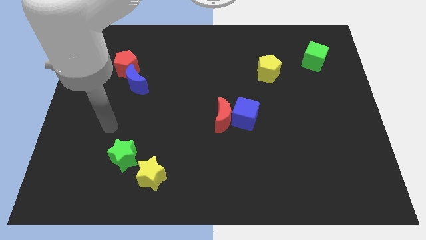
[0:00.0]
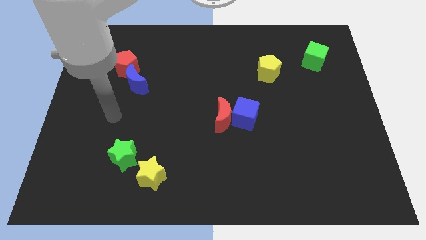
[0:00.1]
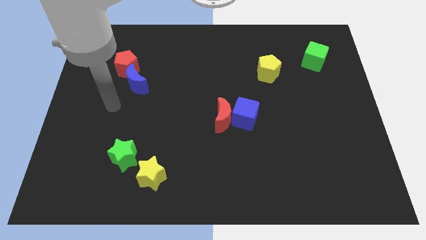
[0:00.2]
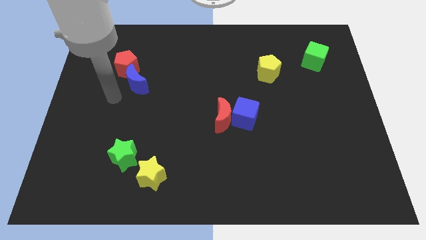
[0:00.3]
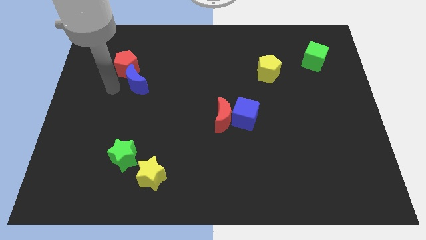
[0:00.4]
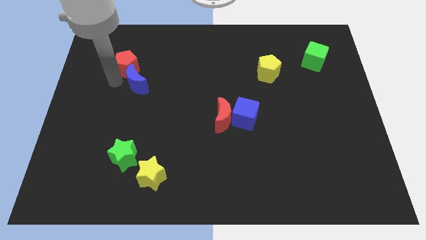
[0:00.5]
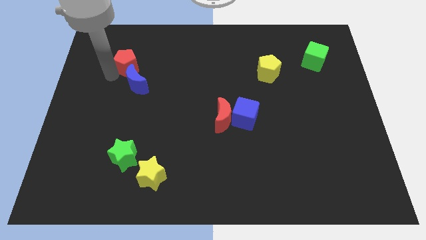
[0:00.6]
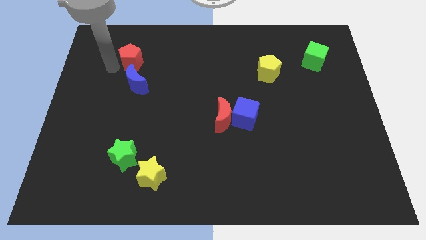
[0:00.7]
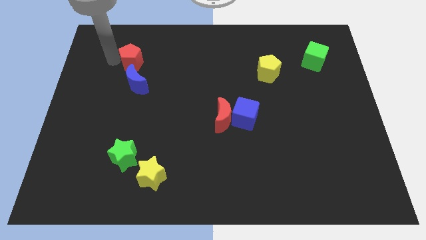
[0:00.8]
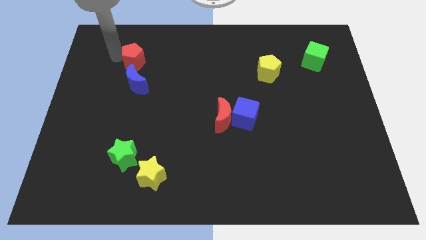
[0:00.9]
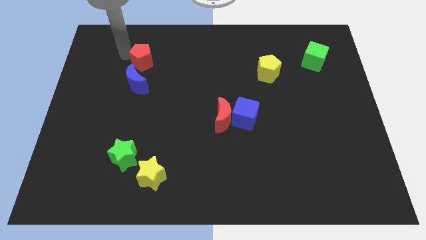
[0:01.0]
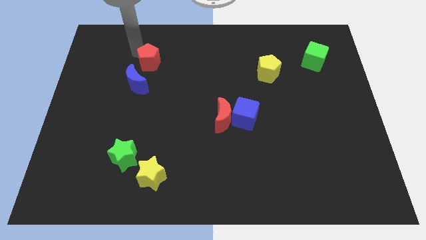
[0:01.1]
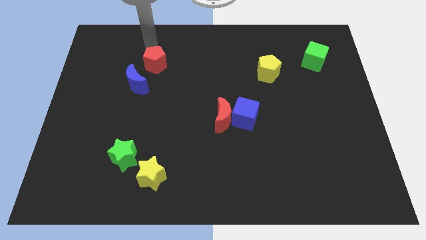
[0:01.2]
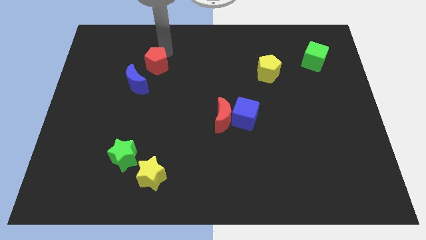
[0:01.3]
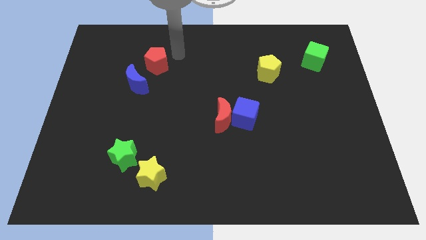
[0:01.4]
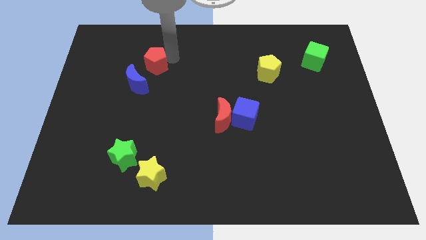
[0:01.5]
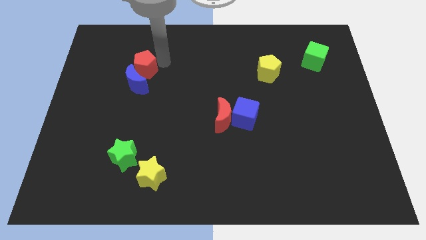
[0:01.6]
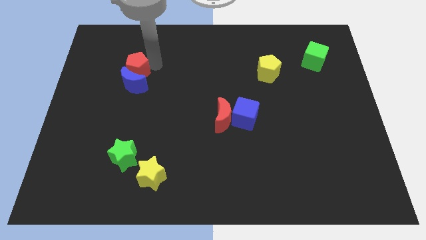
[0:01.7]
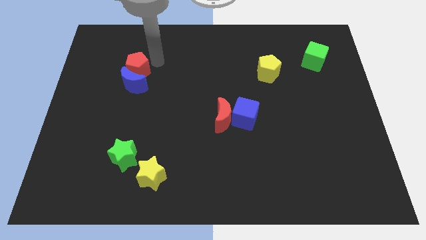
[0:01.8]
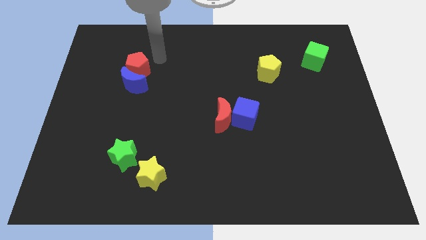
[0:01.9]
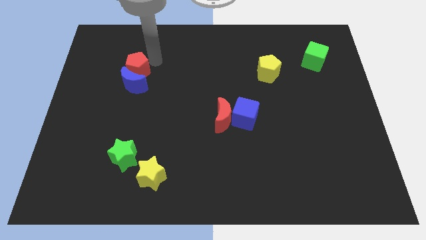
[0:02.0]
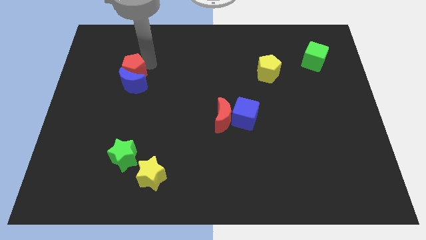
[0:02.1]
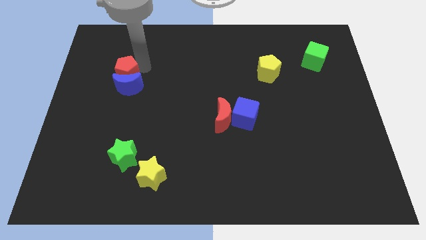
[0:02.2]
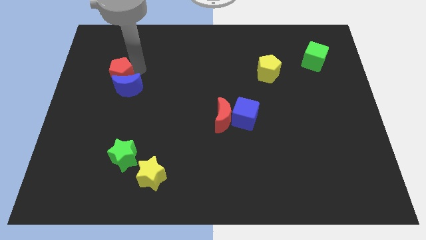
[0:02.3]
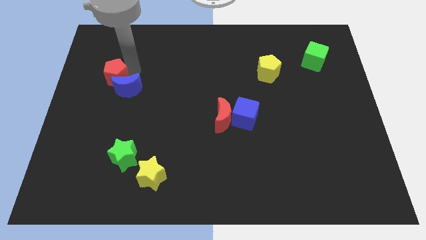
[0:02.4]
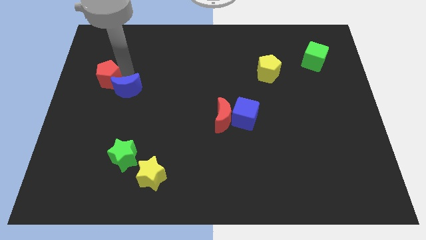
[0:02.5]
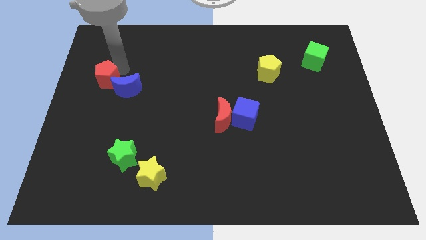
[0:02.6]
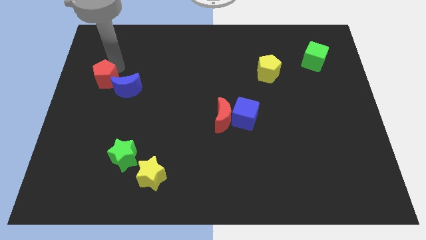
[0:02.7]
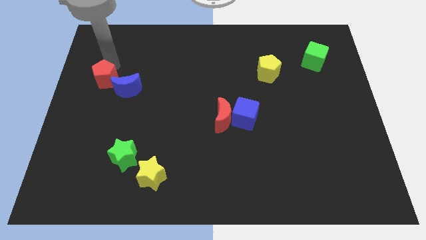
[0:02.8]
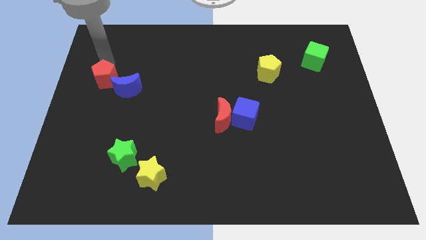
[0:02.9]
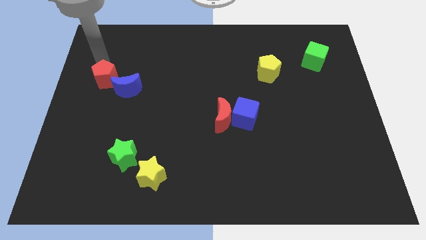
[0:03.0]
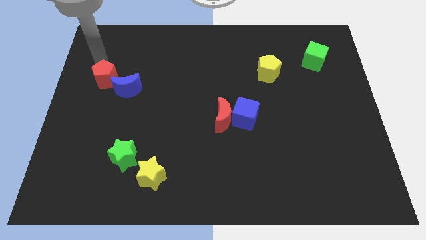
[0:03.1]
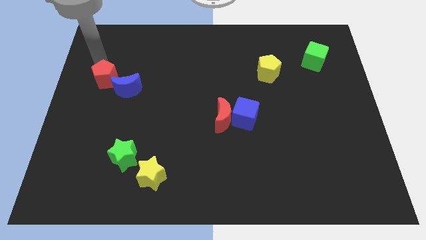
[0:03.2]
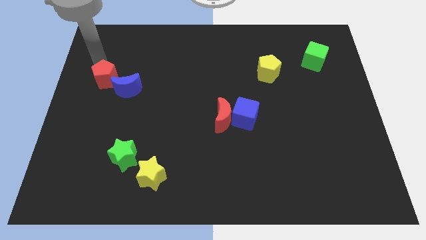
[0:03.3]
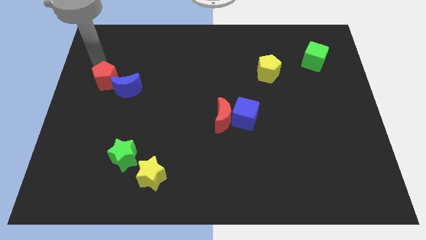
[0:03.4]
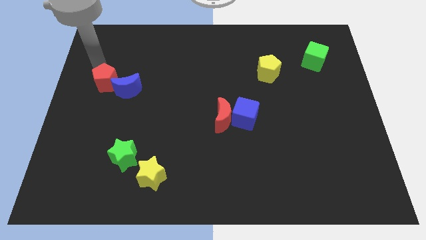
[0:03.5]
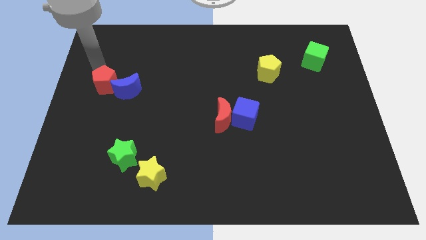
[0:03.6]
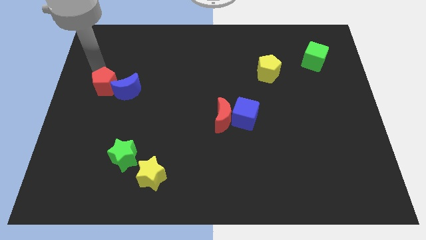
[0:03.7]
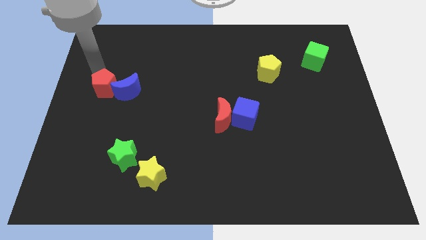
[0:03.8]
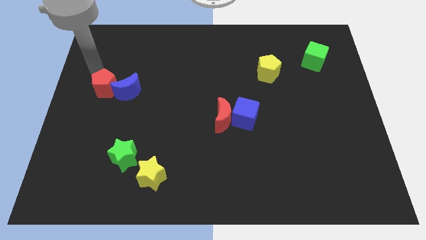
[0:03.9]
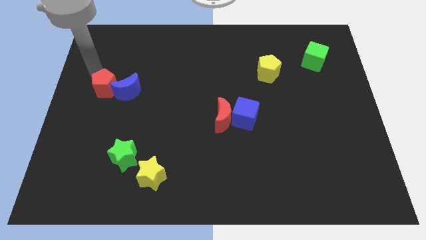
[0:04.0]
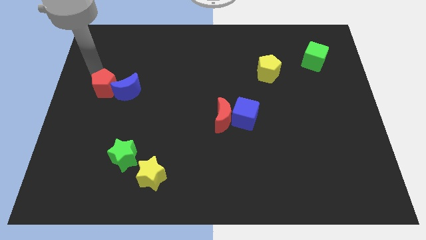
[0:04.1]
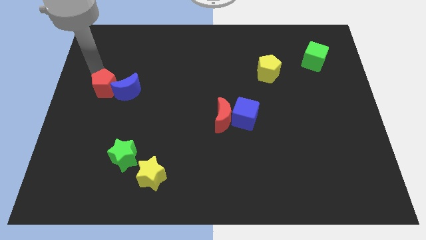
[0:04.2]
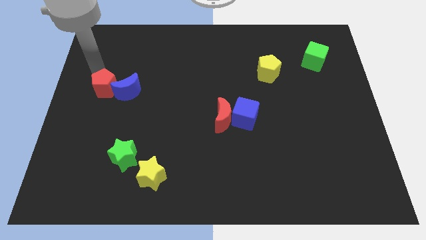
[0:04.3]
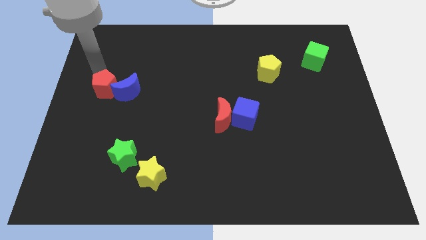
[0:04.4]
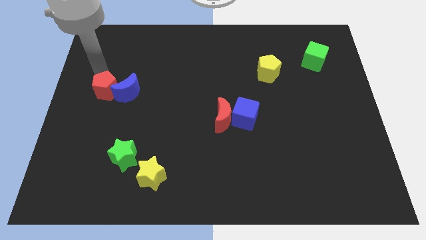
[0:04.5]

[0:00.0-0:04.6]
push the red pentagon a little downwards

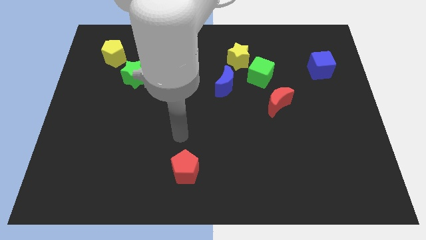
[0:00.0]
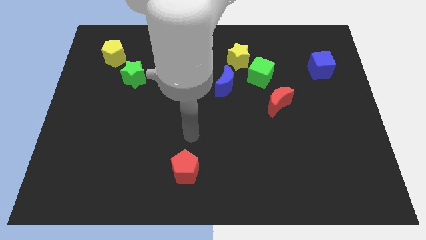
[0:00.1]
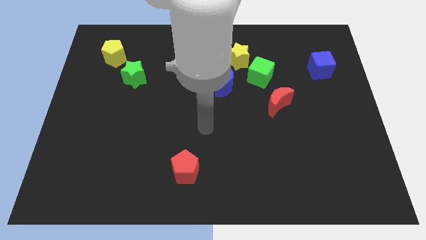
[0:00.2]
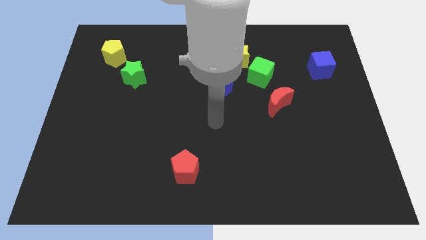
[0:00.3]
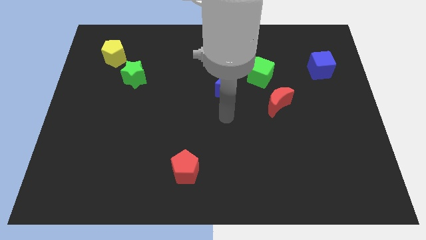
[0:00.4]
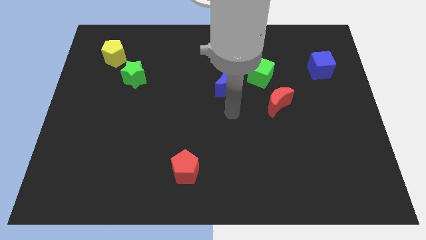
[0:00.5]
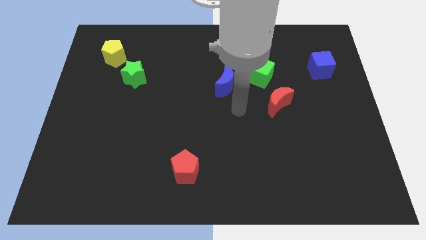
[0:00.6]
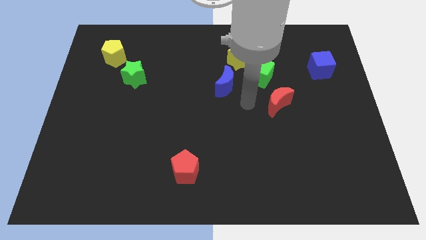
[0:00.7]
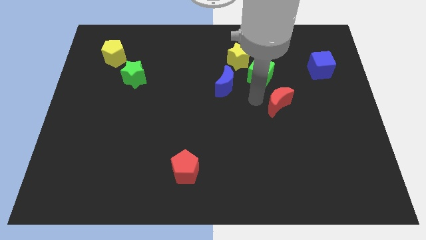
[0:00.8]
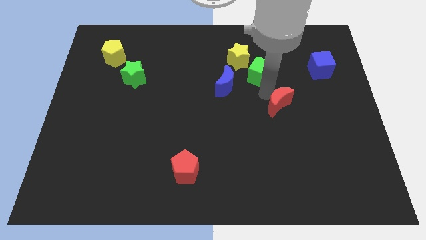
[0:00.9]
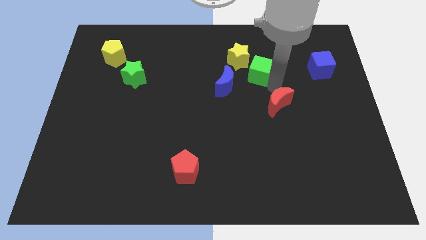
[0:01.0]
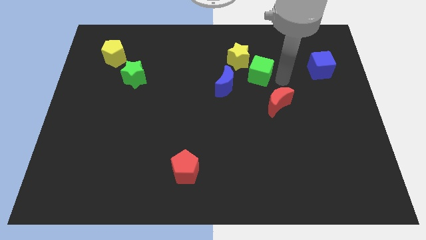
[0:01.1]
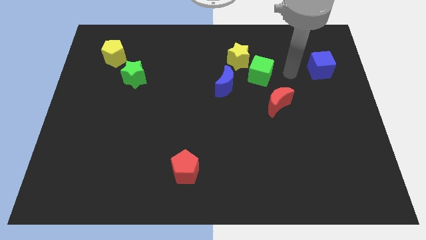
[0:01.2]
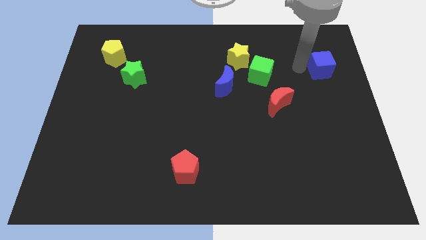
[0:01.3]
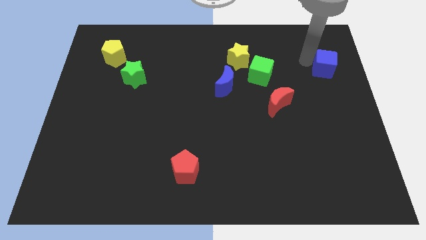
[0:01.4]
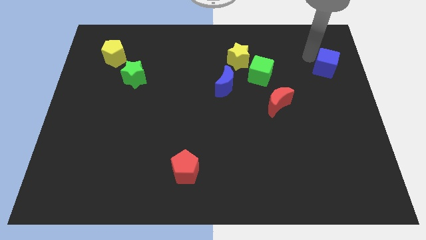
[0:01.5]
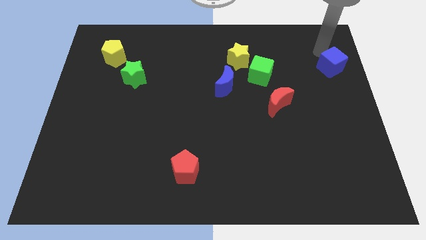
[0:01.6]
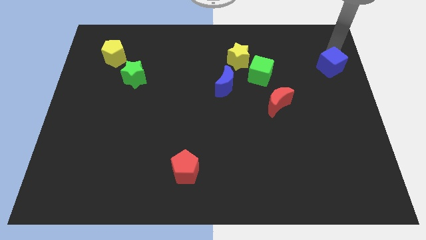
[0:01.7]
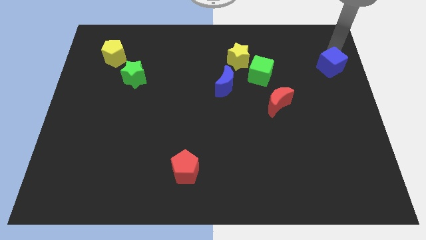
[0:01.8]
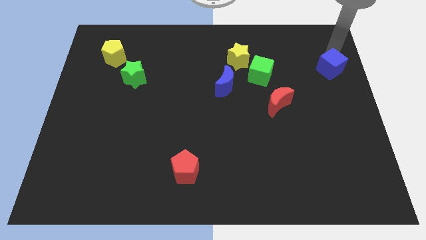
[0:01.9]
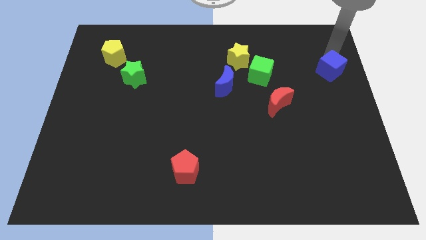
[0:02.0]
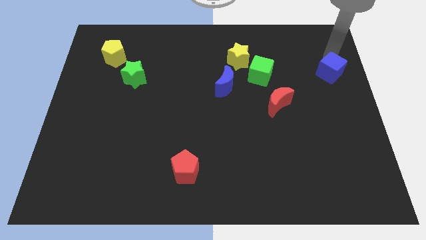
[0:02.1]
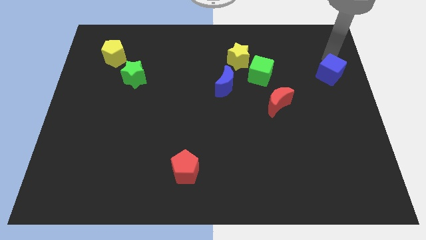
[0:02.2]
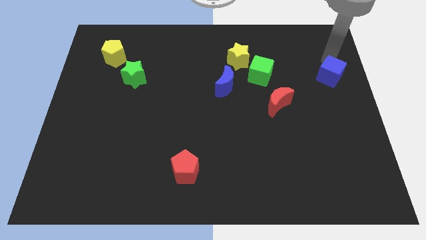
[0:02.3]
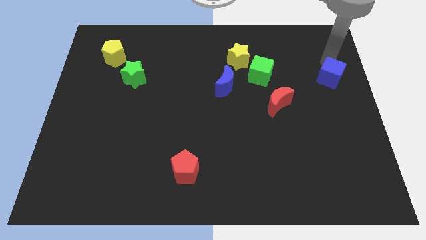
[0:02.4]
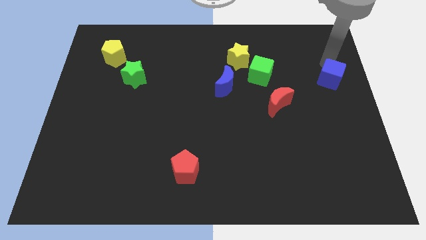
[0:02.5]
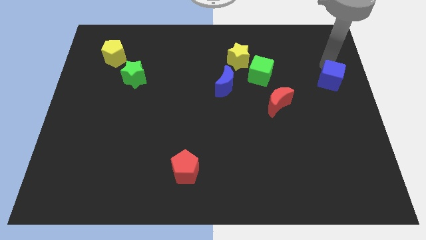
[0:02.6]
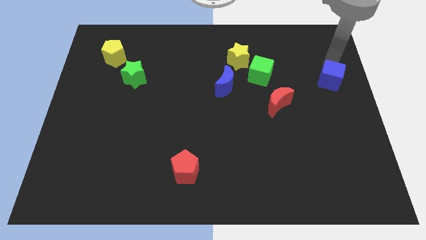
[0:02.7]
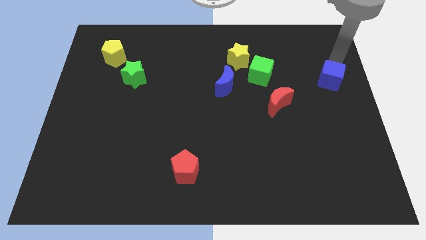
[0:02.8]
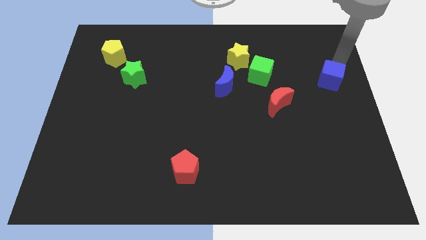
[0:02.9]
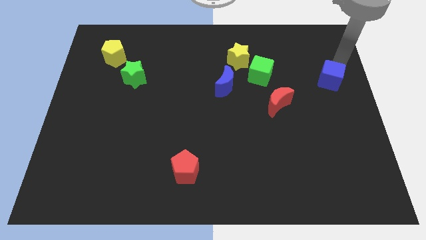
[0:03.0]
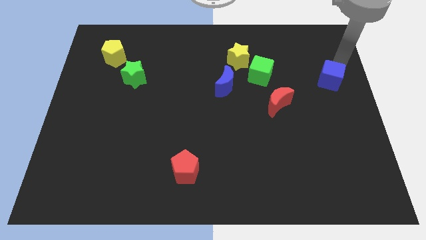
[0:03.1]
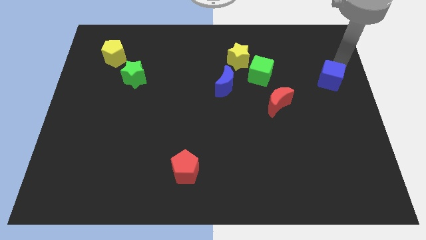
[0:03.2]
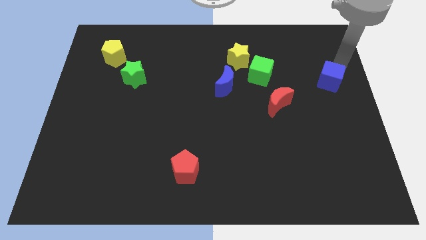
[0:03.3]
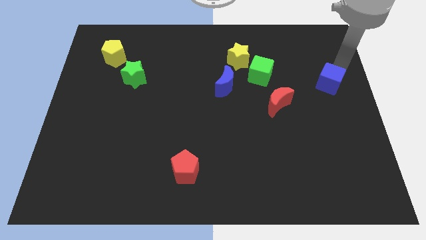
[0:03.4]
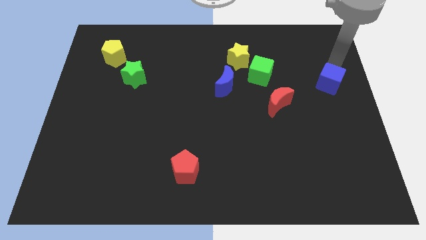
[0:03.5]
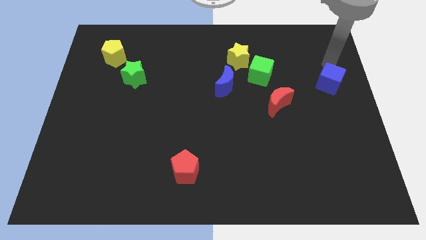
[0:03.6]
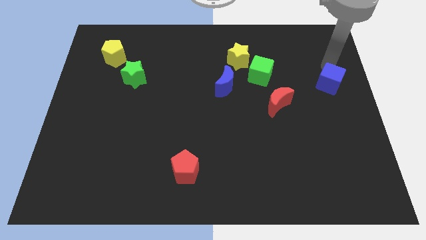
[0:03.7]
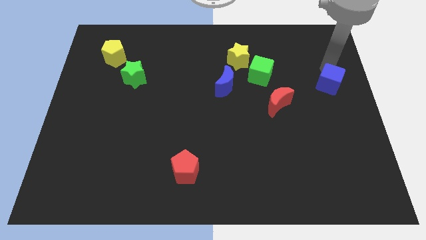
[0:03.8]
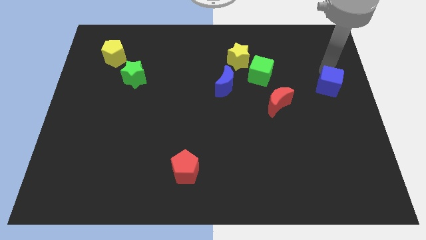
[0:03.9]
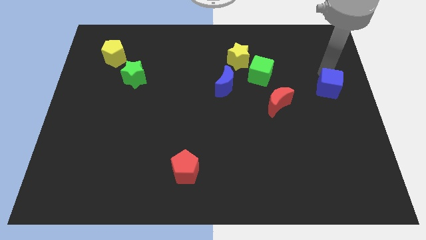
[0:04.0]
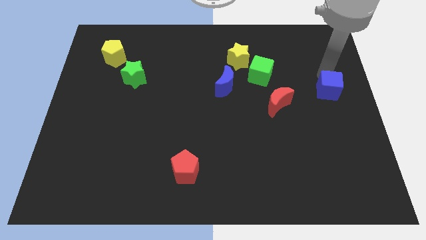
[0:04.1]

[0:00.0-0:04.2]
push the blue cube somewhat downwards
